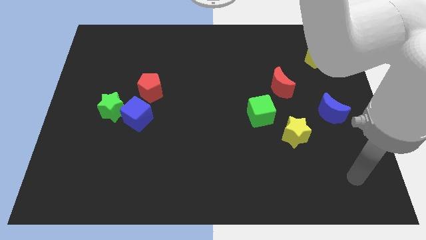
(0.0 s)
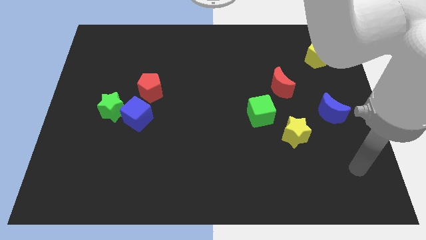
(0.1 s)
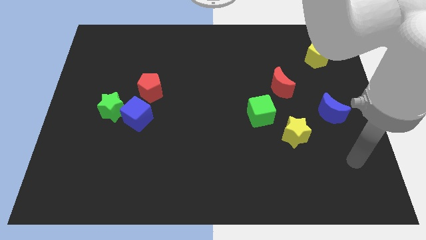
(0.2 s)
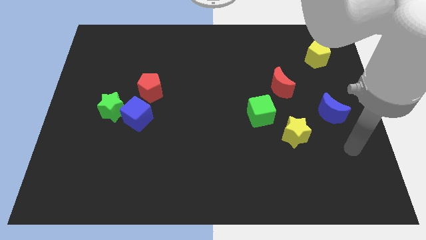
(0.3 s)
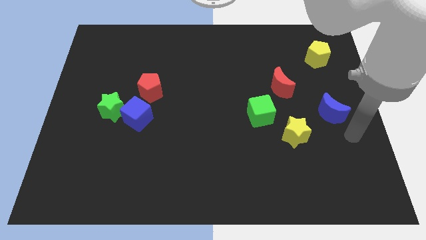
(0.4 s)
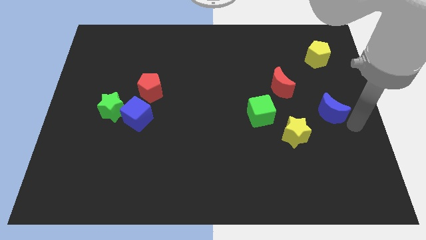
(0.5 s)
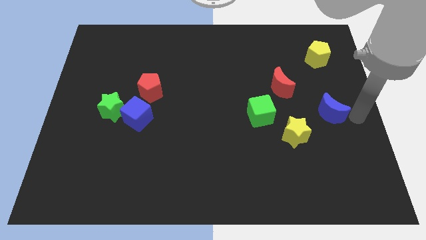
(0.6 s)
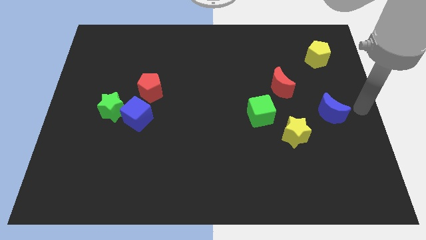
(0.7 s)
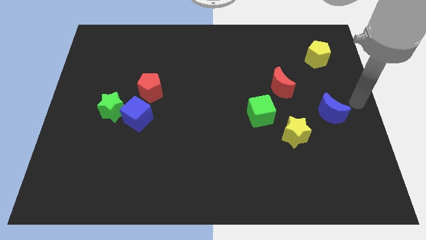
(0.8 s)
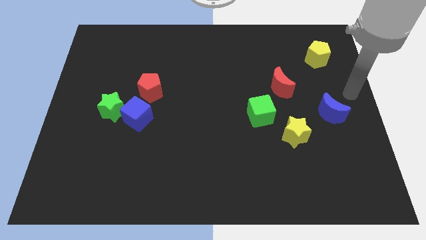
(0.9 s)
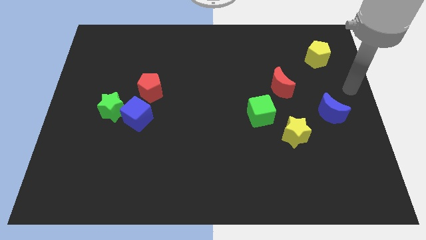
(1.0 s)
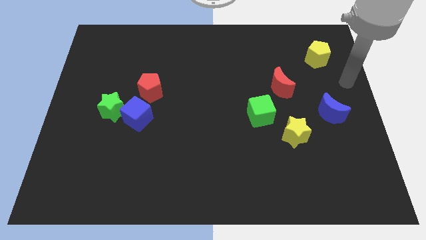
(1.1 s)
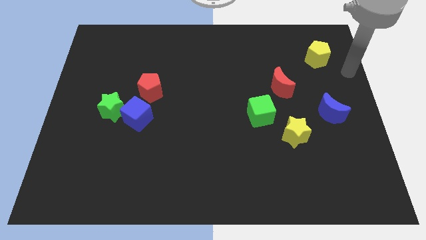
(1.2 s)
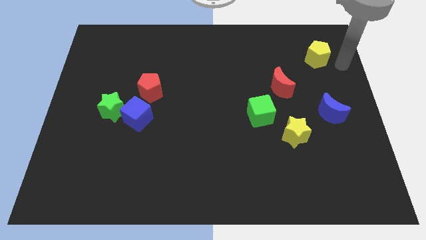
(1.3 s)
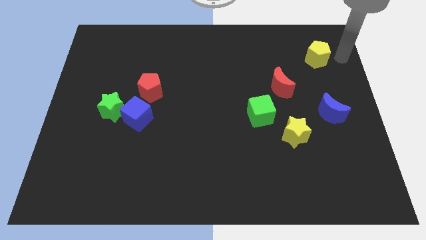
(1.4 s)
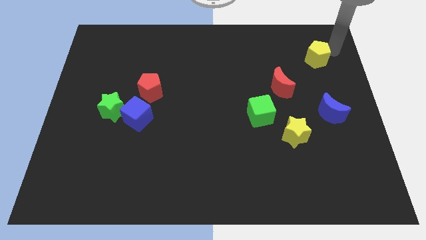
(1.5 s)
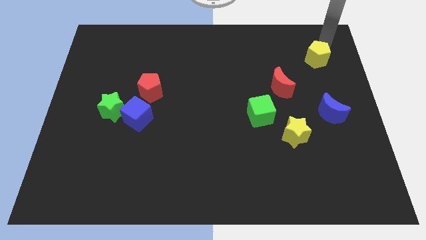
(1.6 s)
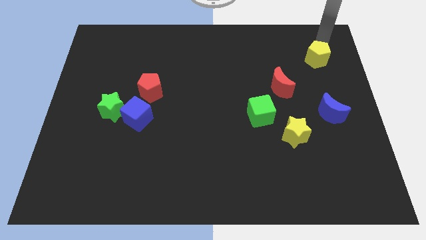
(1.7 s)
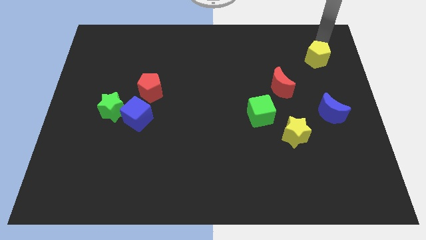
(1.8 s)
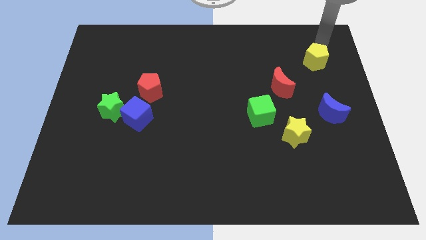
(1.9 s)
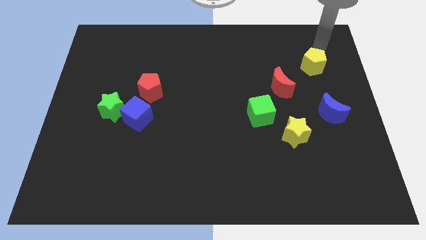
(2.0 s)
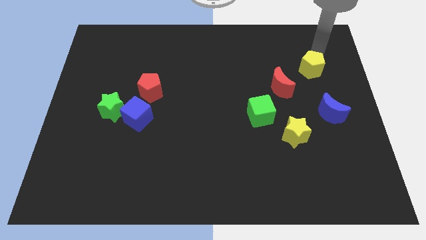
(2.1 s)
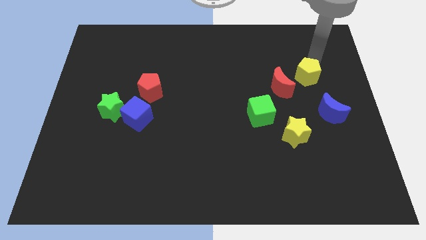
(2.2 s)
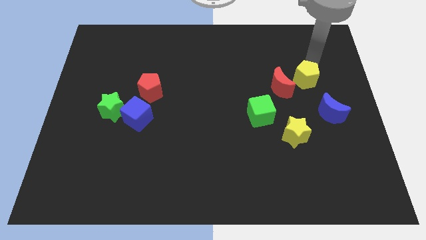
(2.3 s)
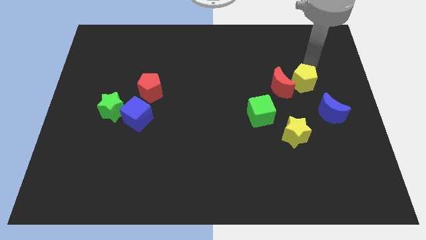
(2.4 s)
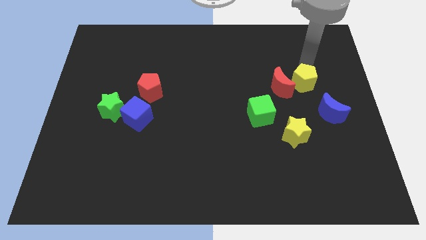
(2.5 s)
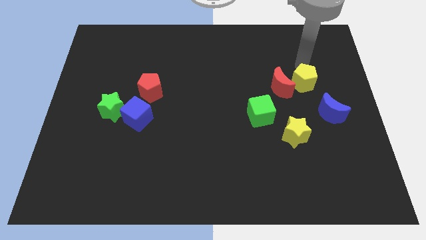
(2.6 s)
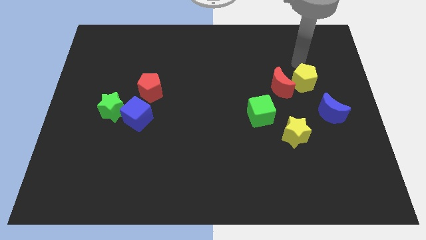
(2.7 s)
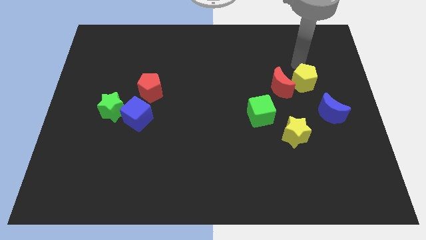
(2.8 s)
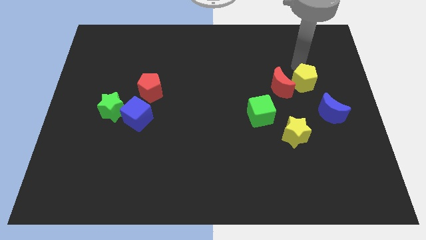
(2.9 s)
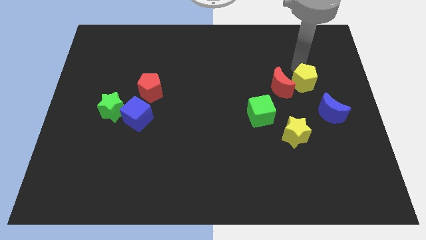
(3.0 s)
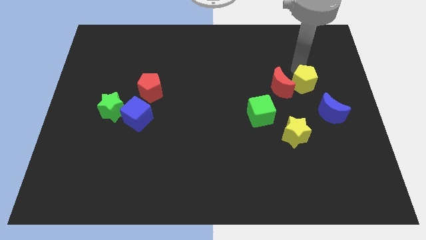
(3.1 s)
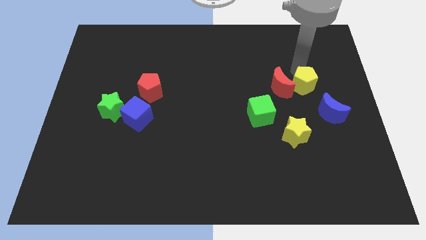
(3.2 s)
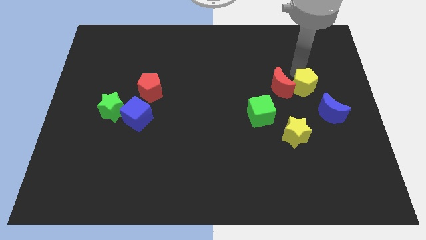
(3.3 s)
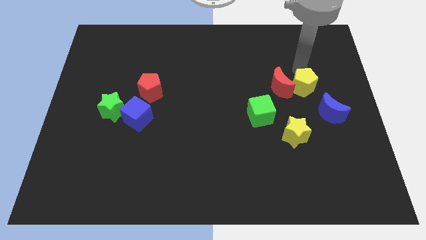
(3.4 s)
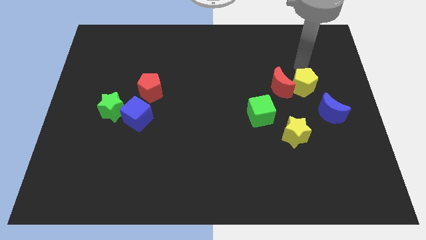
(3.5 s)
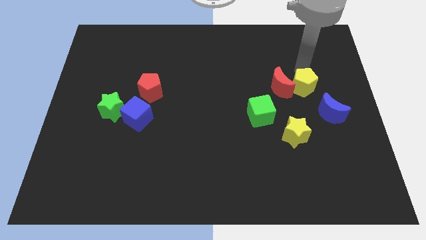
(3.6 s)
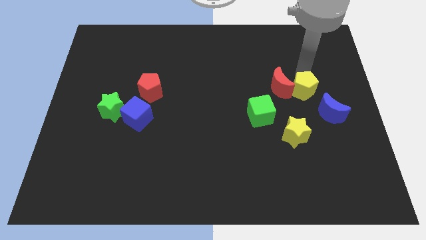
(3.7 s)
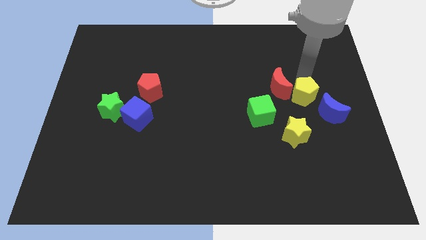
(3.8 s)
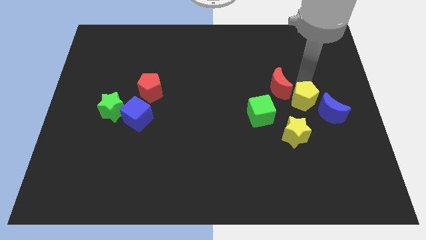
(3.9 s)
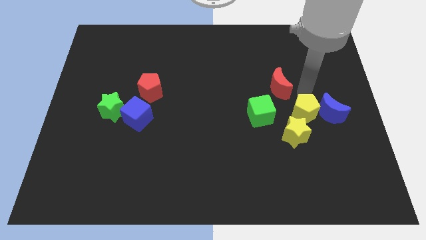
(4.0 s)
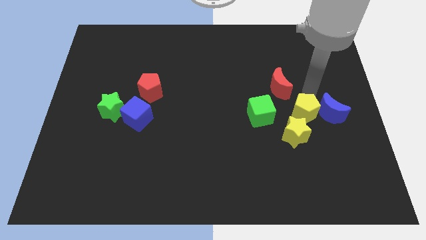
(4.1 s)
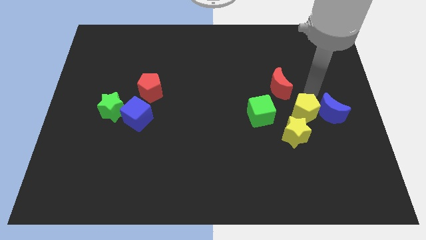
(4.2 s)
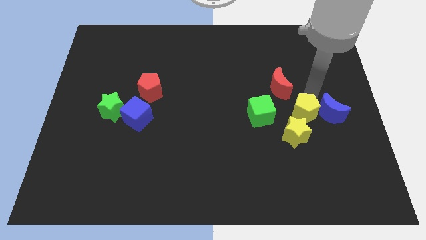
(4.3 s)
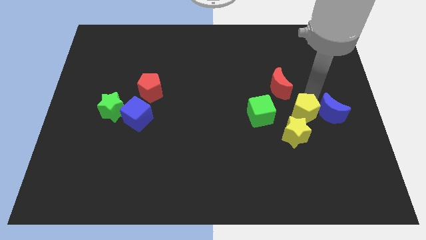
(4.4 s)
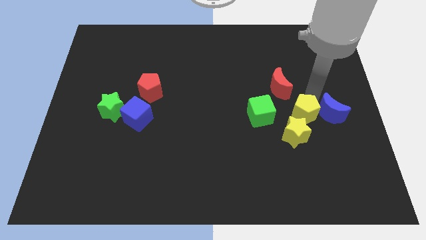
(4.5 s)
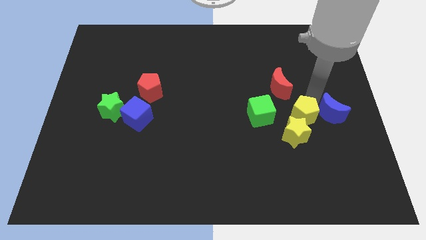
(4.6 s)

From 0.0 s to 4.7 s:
slide the yellow pentagon towards the yellow star

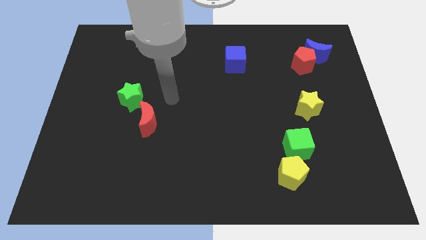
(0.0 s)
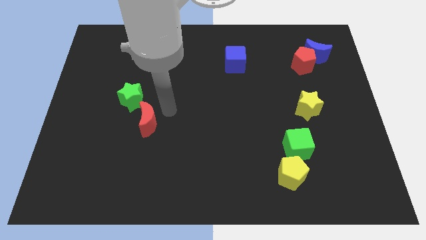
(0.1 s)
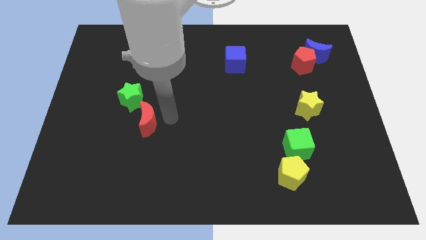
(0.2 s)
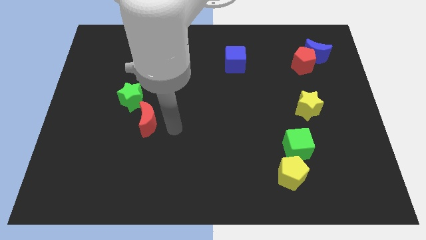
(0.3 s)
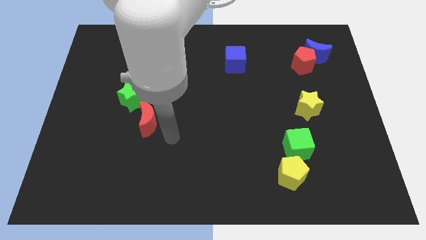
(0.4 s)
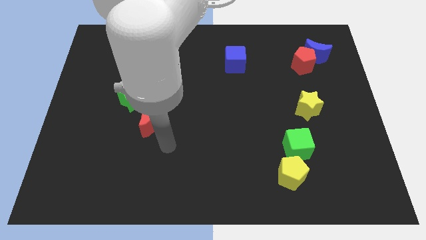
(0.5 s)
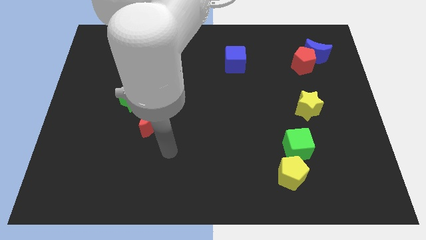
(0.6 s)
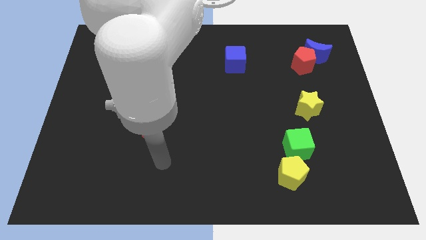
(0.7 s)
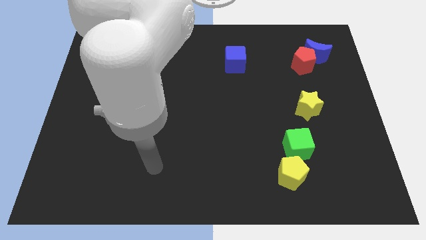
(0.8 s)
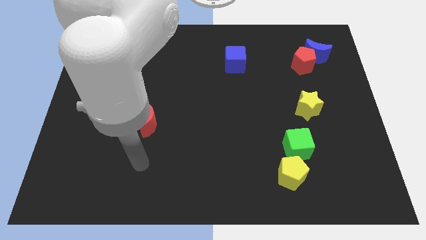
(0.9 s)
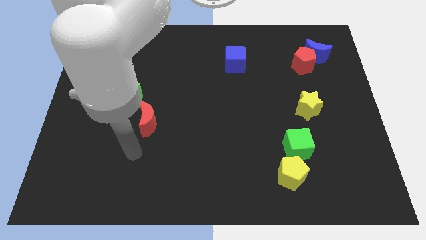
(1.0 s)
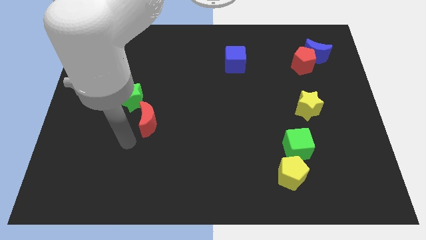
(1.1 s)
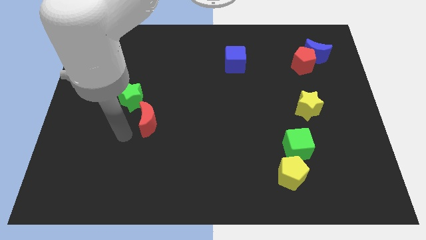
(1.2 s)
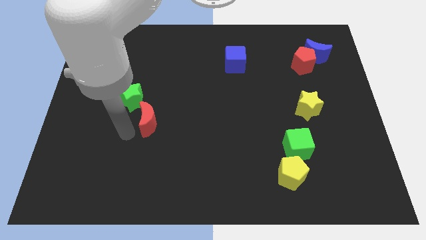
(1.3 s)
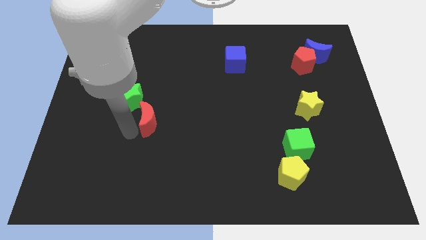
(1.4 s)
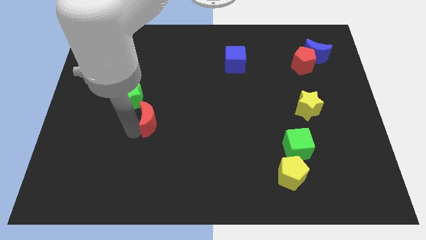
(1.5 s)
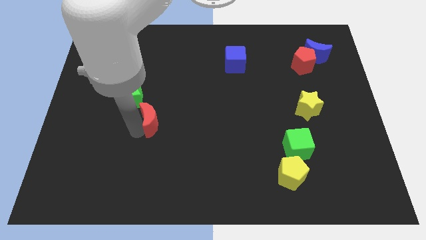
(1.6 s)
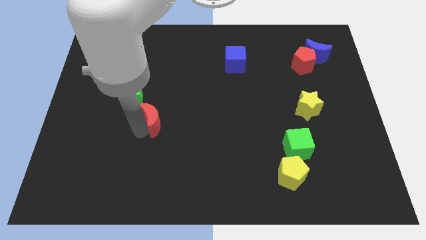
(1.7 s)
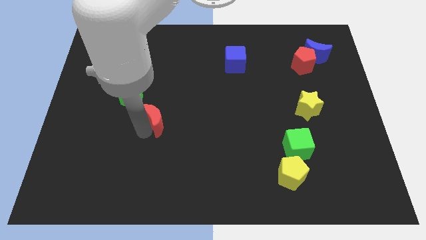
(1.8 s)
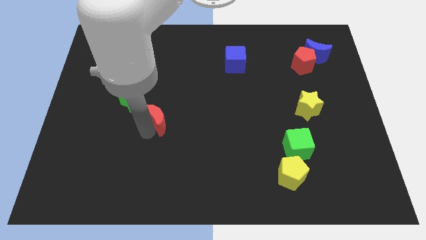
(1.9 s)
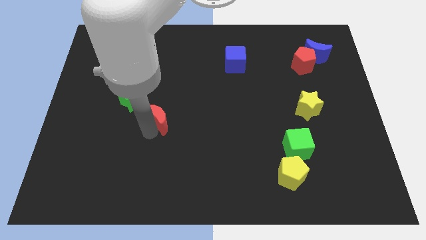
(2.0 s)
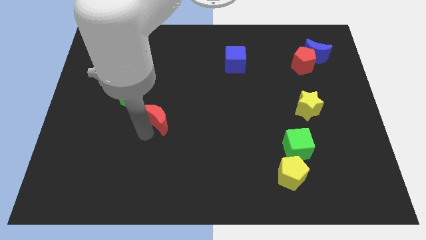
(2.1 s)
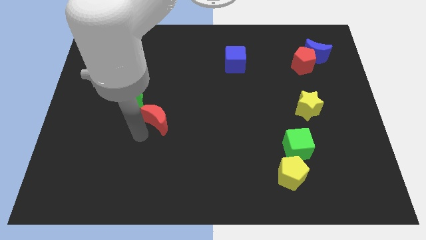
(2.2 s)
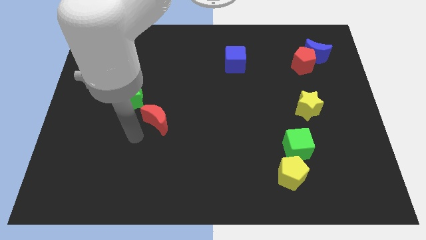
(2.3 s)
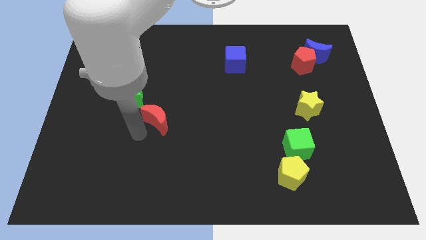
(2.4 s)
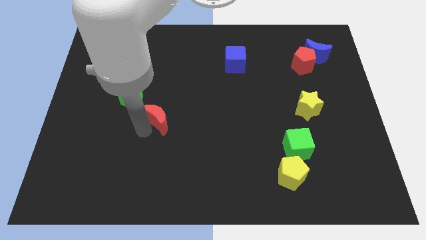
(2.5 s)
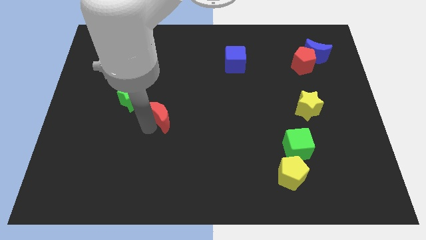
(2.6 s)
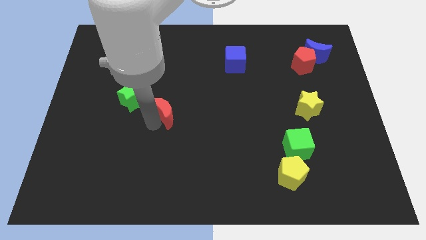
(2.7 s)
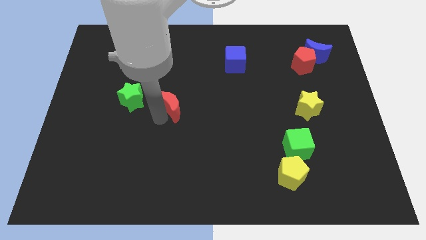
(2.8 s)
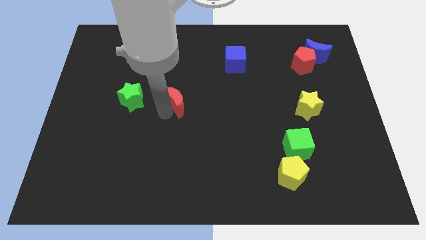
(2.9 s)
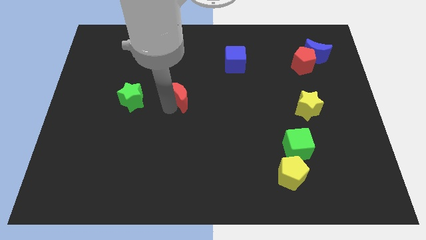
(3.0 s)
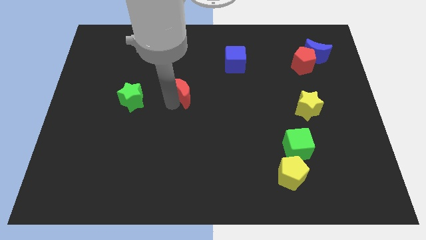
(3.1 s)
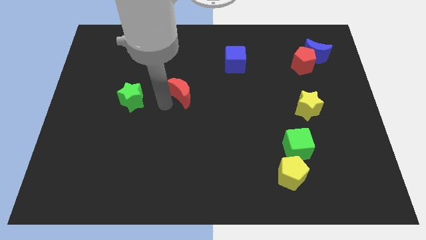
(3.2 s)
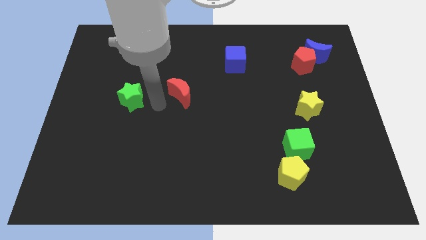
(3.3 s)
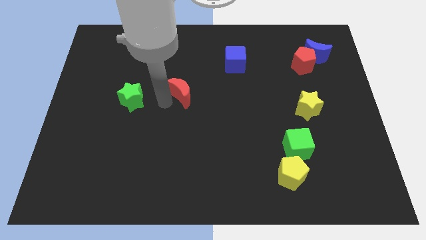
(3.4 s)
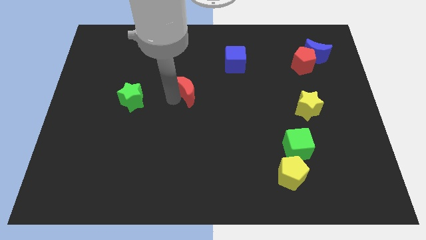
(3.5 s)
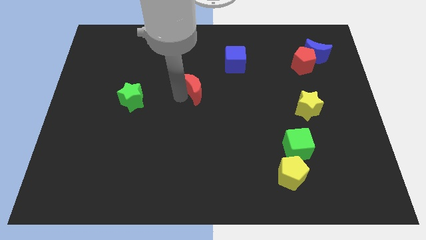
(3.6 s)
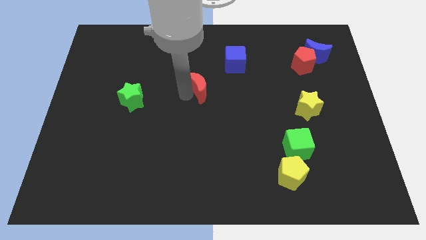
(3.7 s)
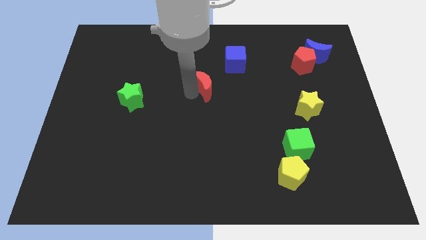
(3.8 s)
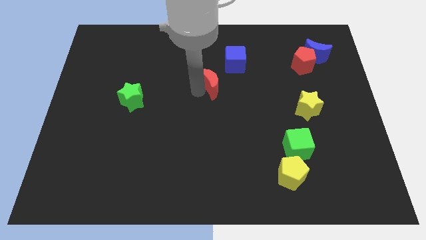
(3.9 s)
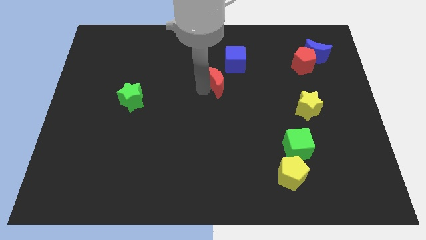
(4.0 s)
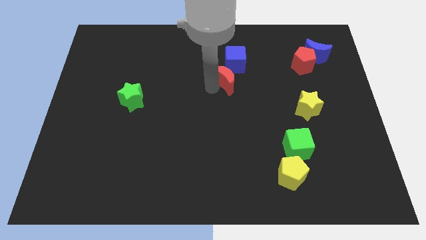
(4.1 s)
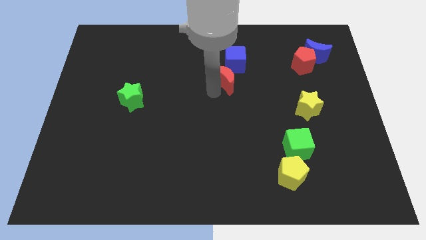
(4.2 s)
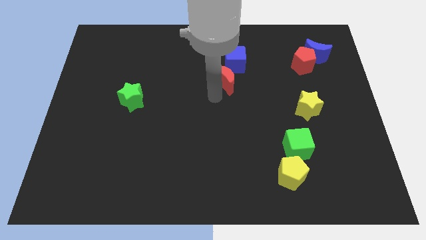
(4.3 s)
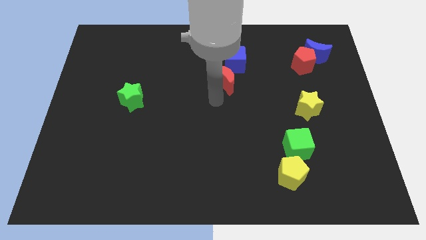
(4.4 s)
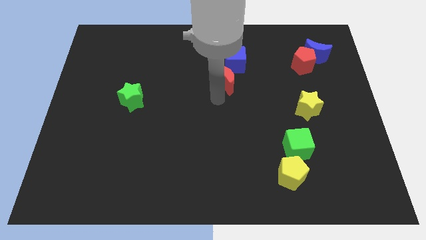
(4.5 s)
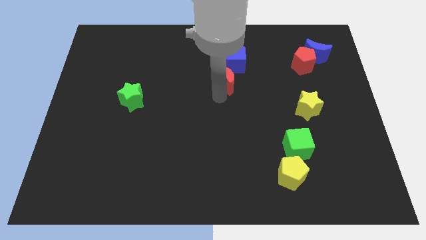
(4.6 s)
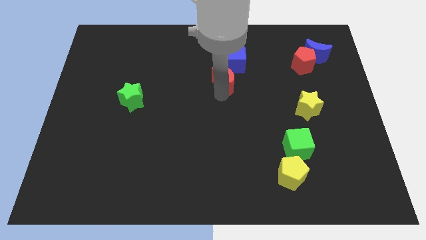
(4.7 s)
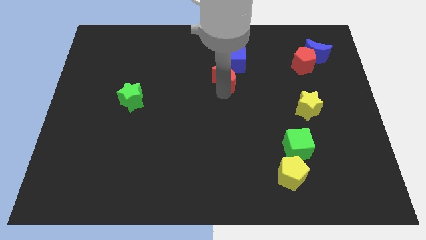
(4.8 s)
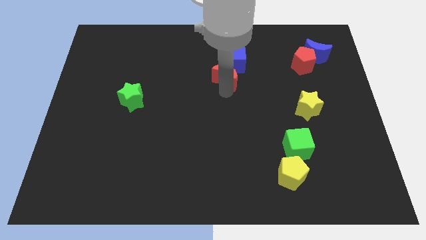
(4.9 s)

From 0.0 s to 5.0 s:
put the red moon towards the blue cube
